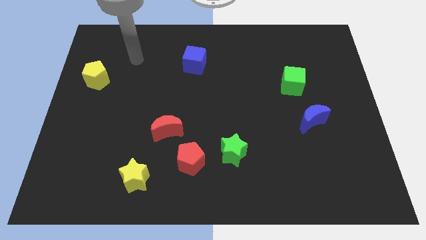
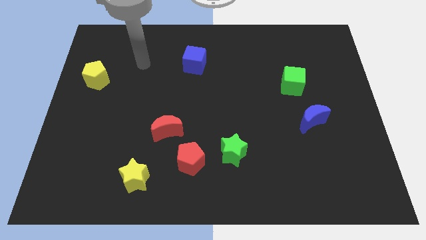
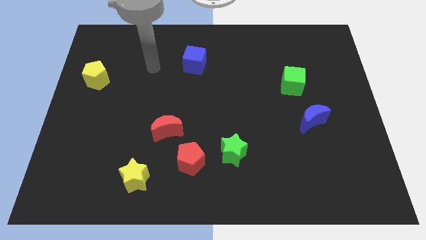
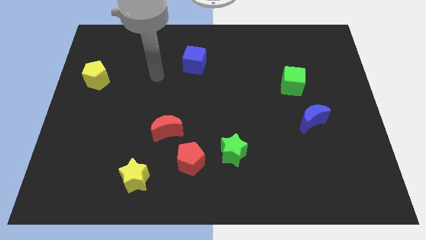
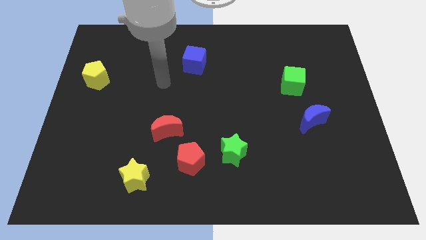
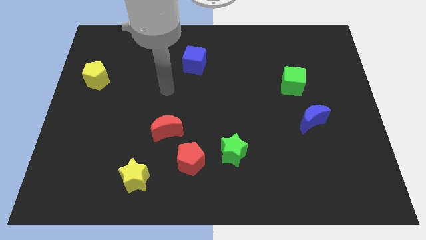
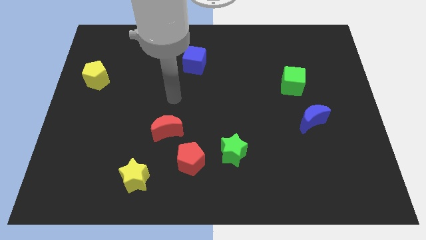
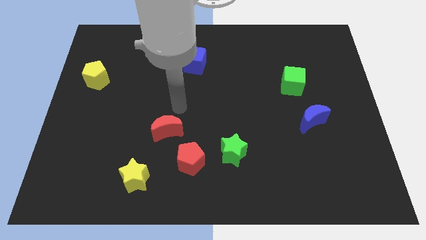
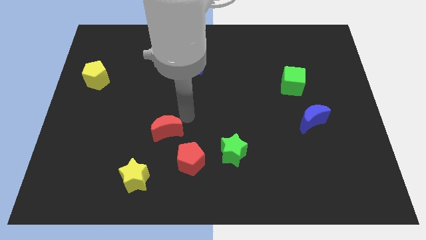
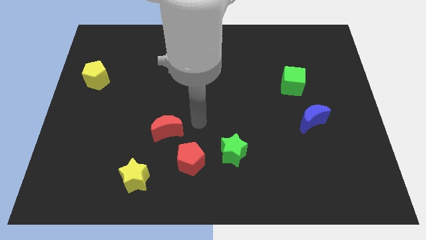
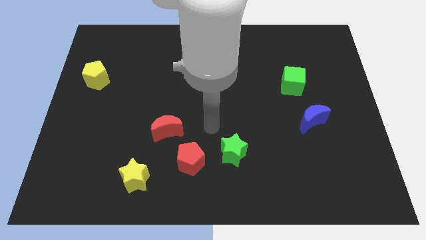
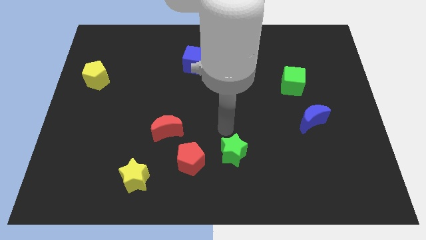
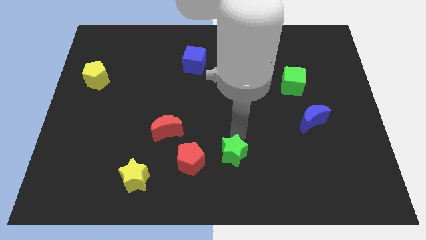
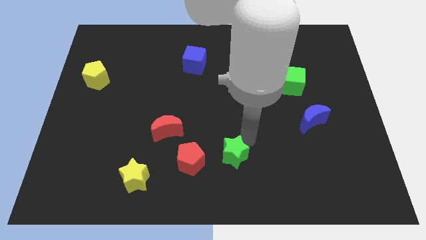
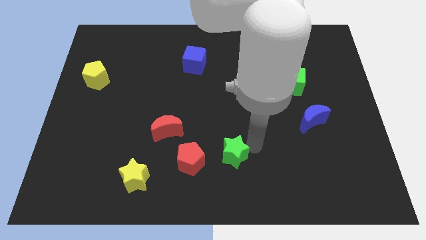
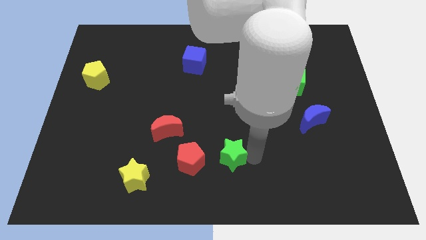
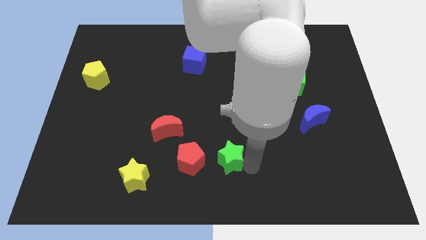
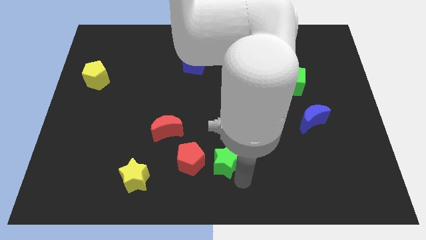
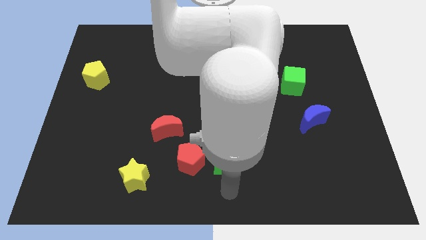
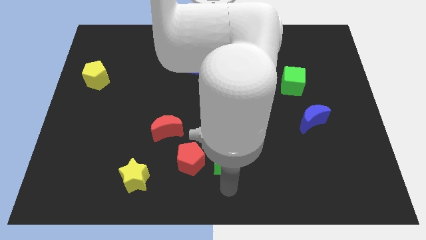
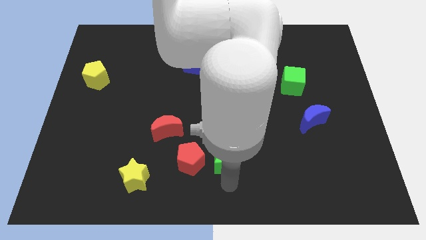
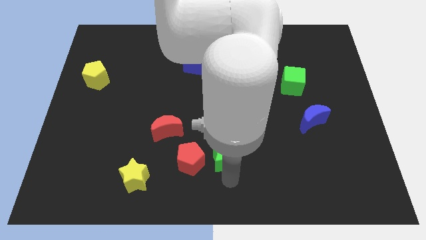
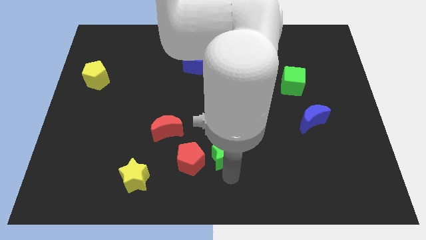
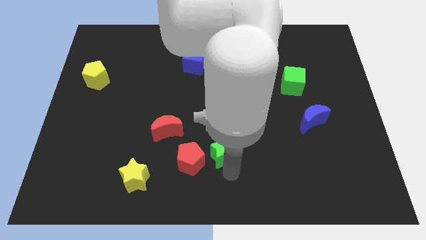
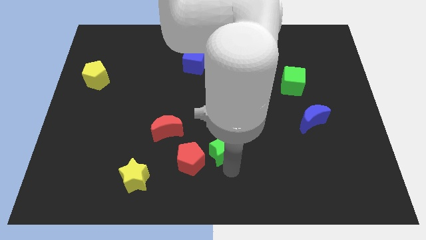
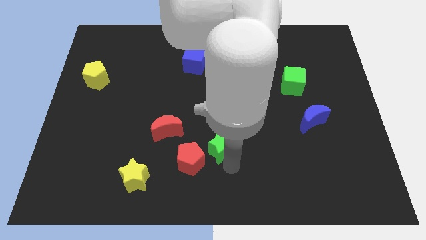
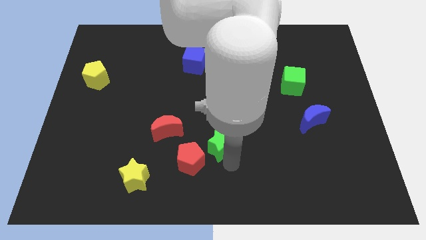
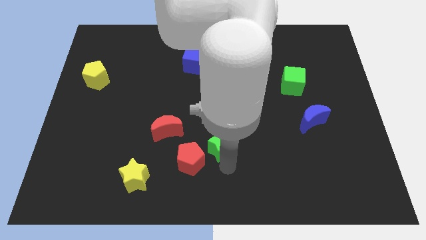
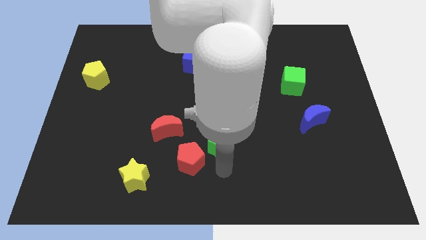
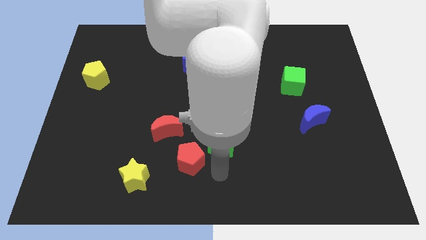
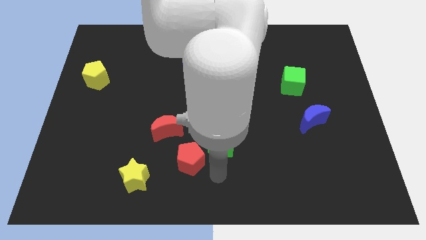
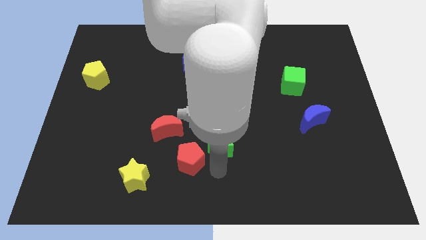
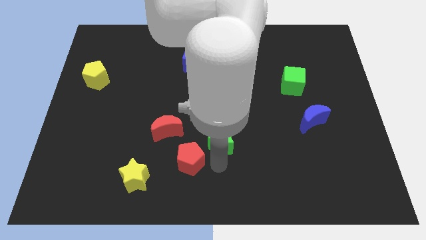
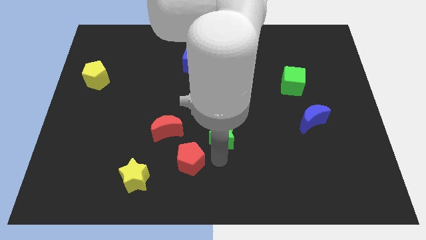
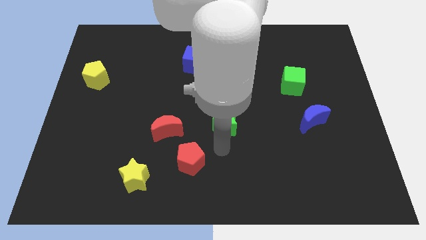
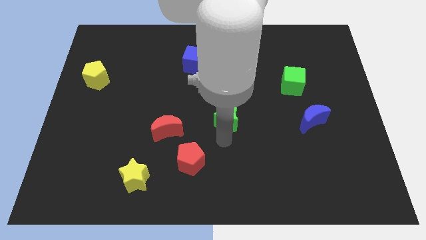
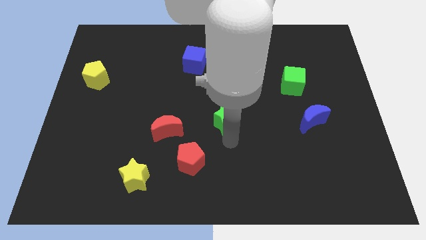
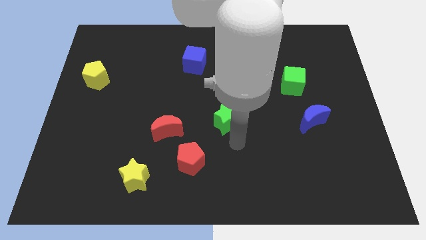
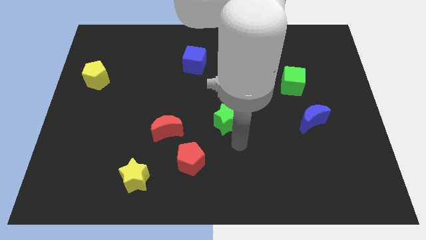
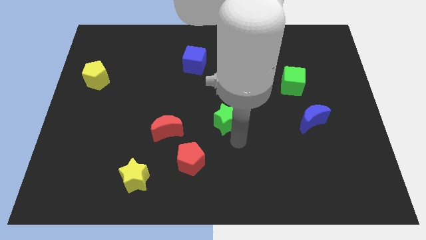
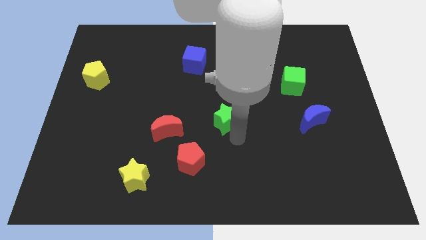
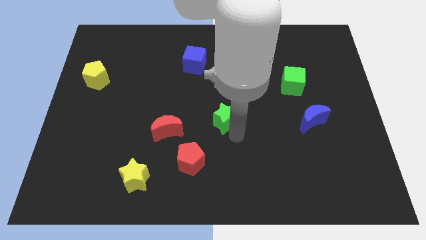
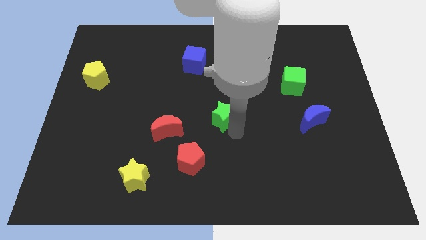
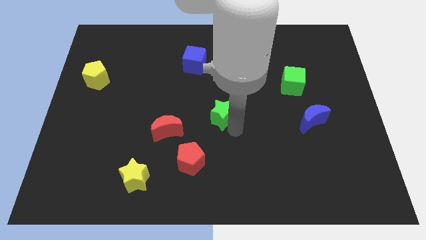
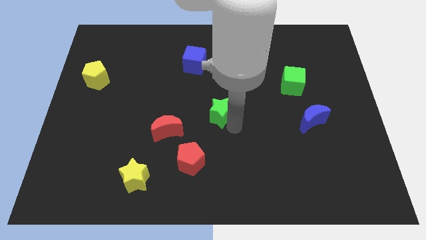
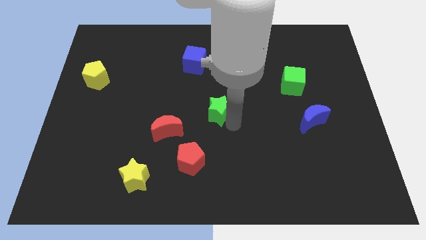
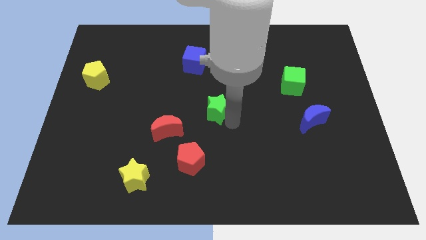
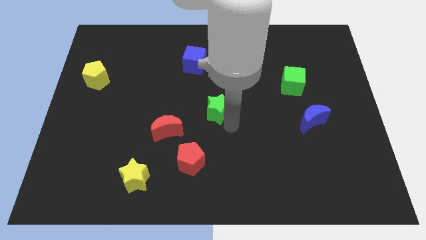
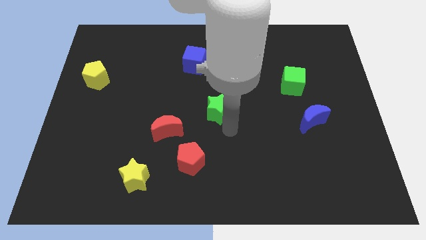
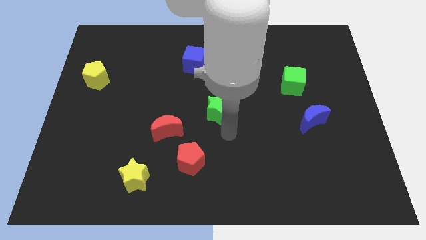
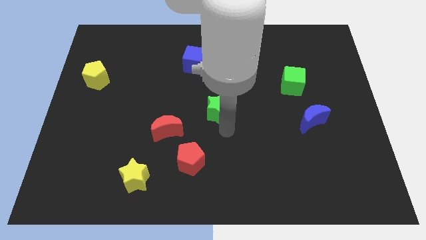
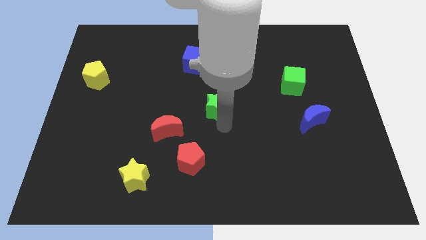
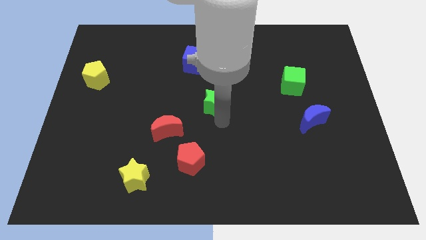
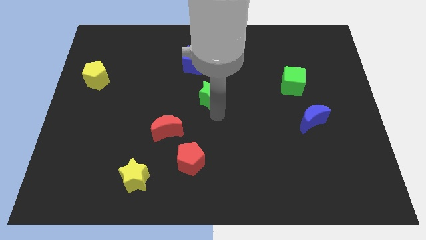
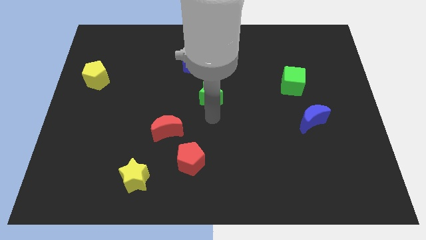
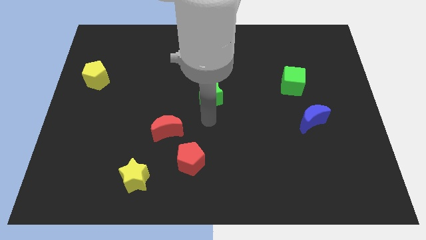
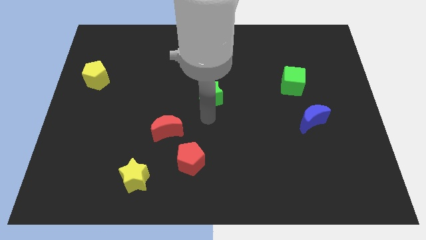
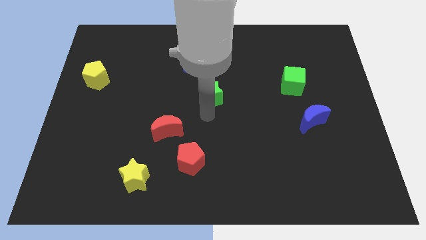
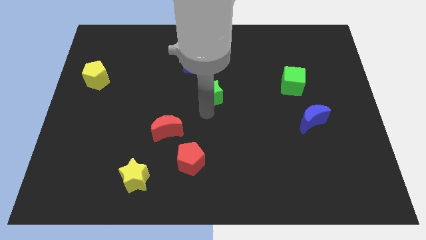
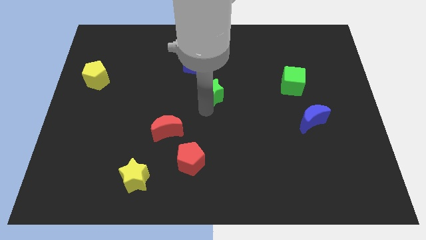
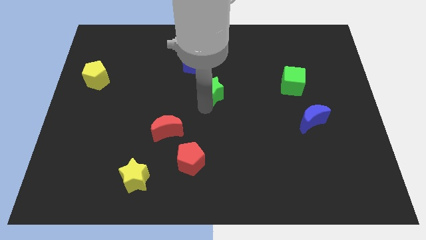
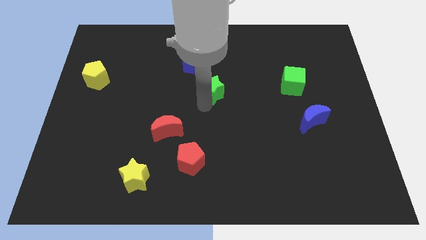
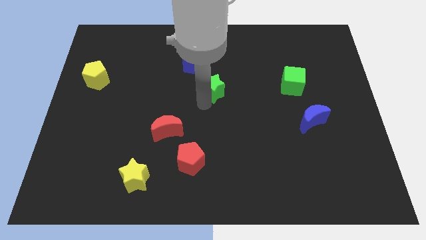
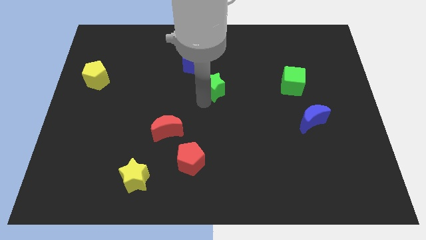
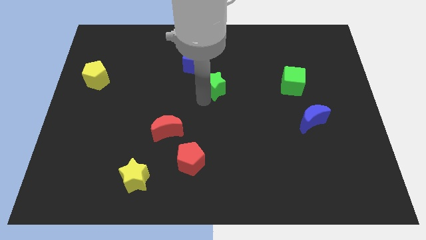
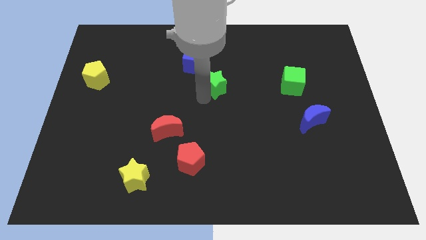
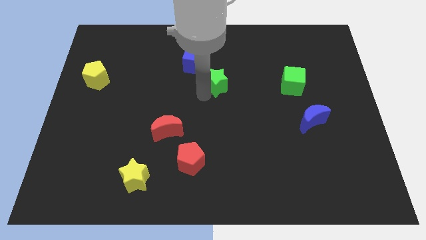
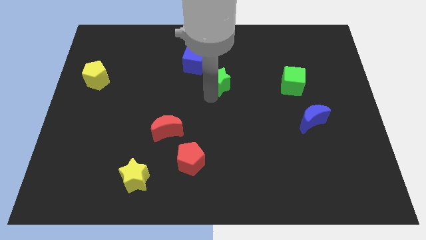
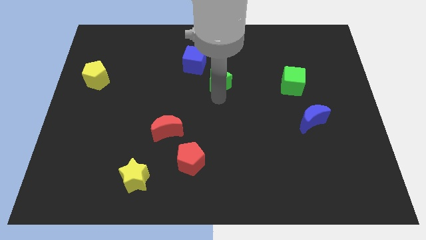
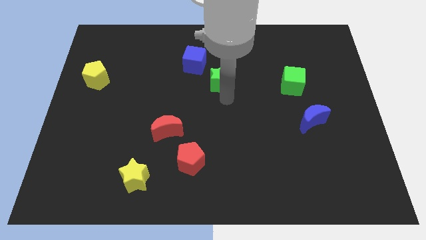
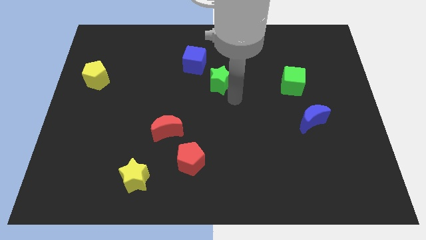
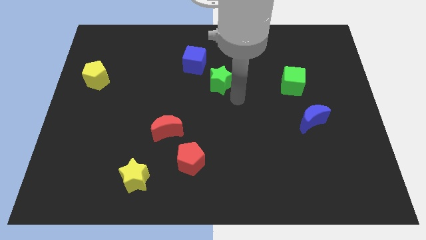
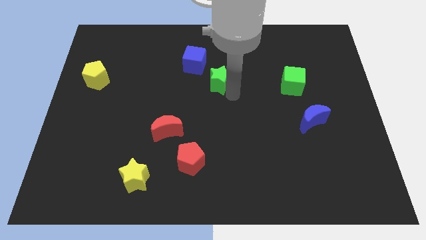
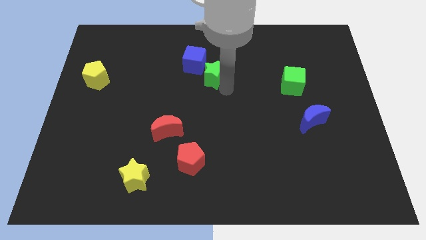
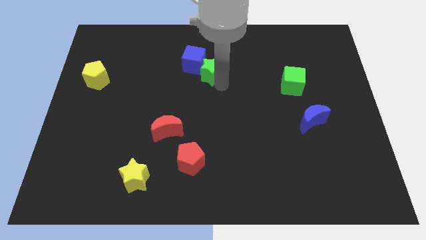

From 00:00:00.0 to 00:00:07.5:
push the green star close to the blue cube
